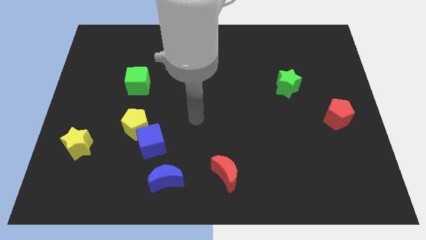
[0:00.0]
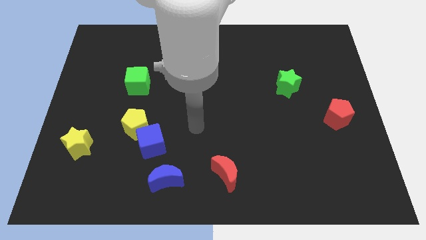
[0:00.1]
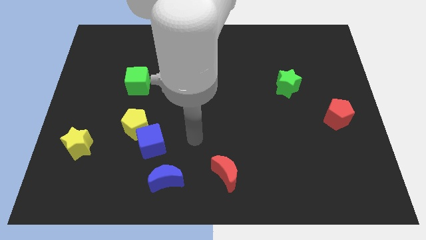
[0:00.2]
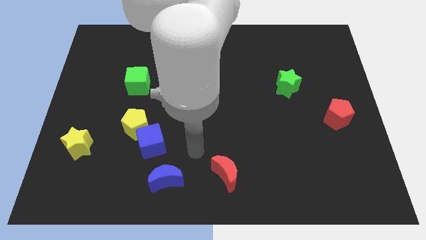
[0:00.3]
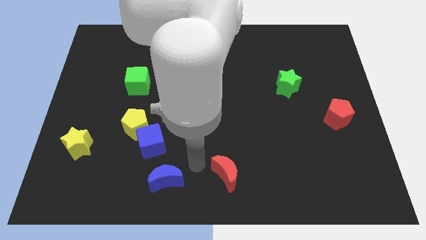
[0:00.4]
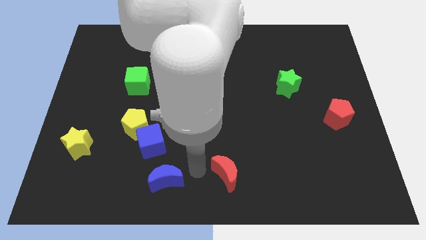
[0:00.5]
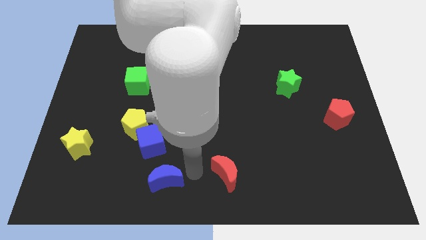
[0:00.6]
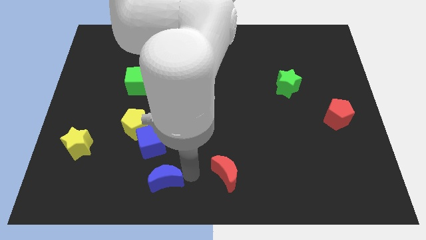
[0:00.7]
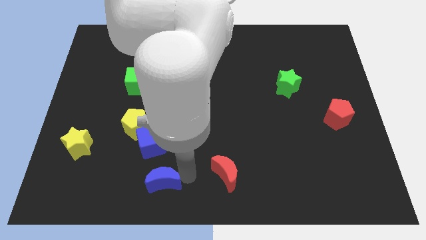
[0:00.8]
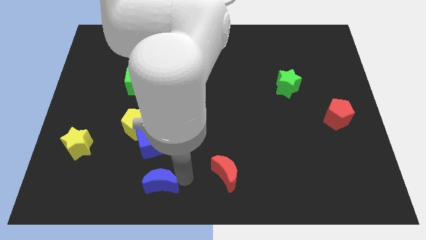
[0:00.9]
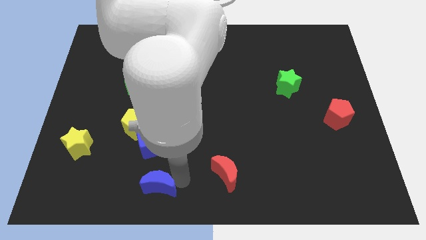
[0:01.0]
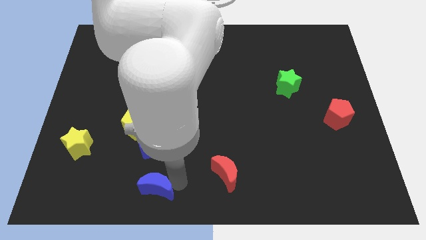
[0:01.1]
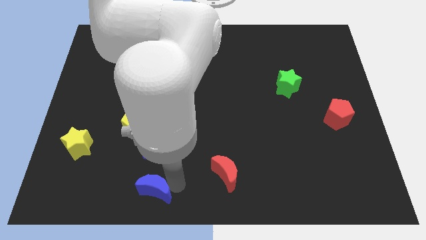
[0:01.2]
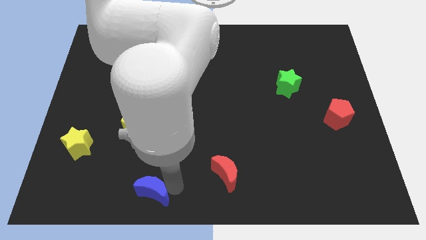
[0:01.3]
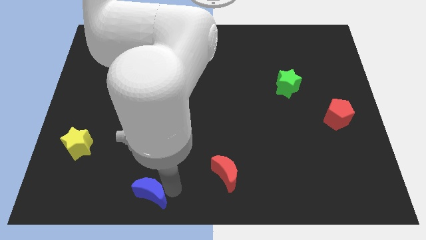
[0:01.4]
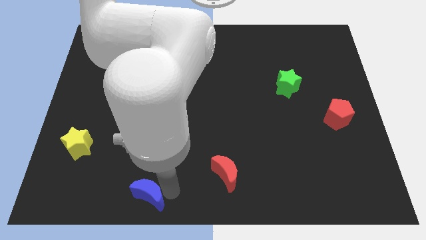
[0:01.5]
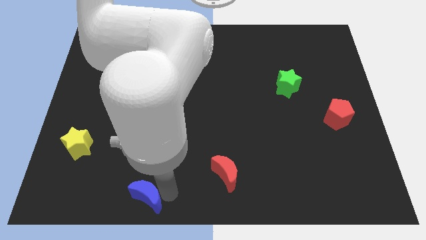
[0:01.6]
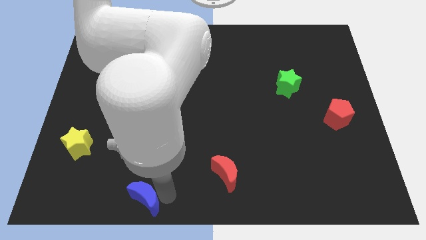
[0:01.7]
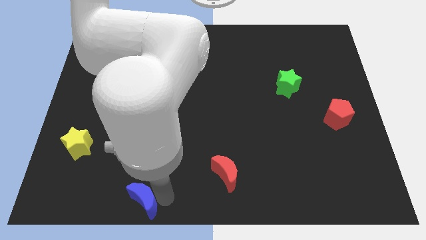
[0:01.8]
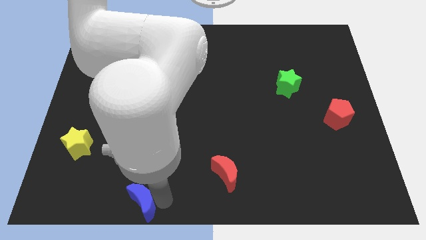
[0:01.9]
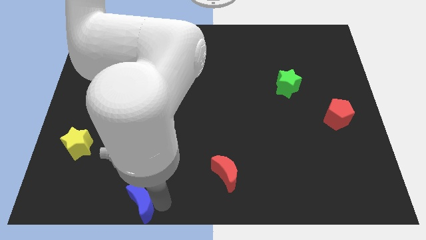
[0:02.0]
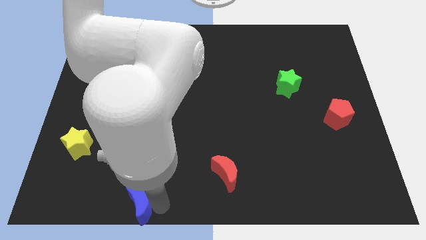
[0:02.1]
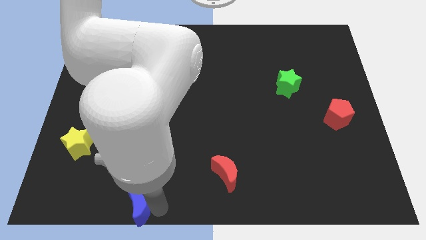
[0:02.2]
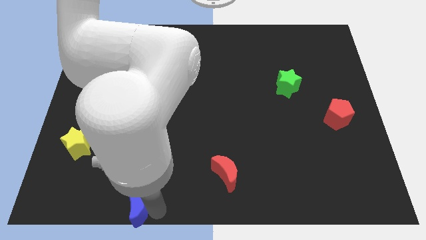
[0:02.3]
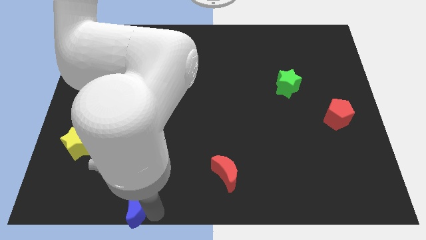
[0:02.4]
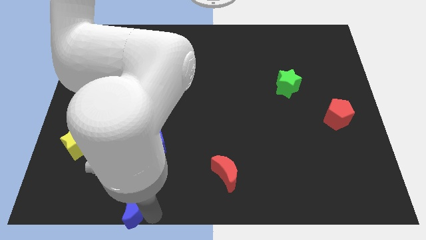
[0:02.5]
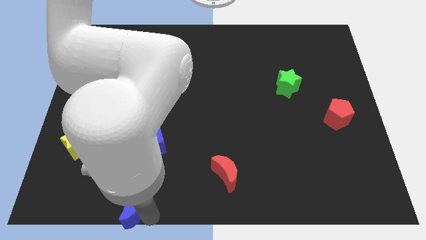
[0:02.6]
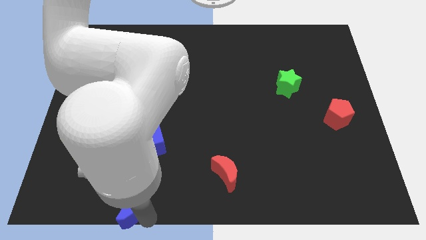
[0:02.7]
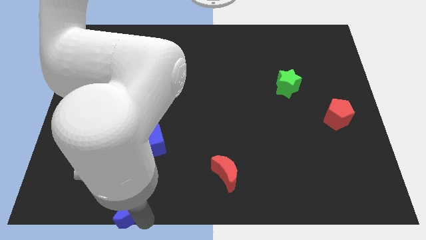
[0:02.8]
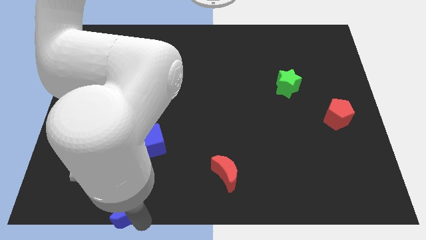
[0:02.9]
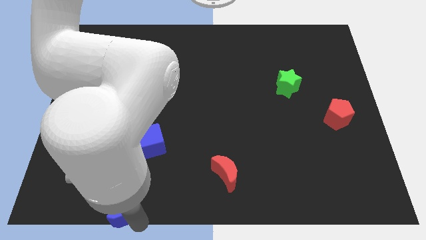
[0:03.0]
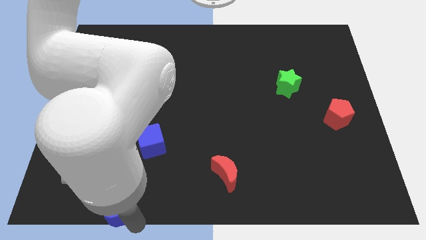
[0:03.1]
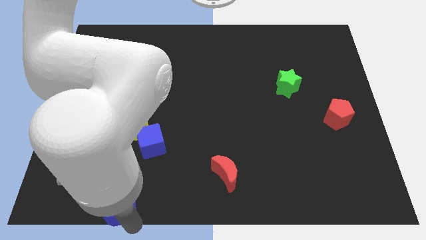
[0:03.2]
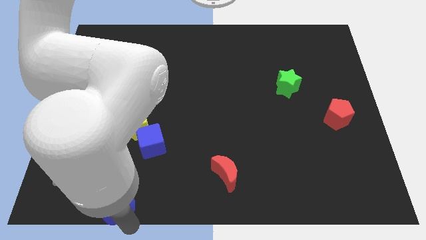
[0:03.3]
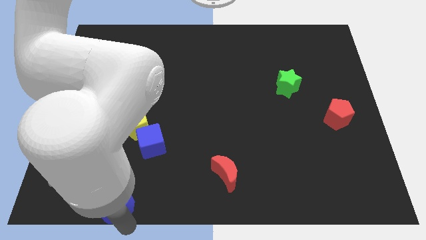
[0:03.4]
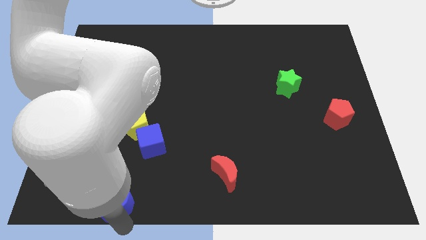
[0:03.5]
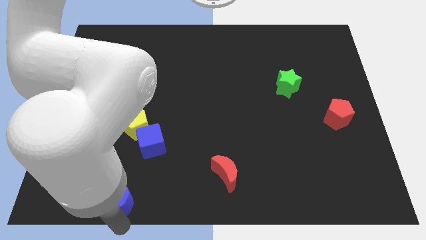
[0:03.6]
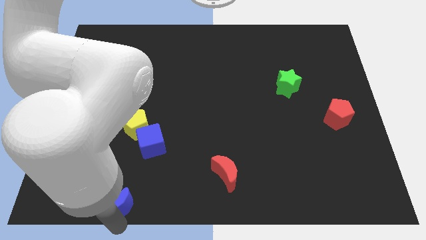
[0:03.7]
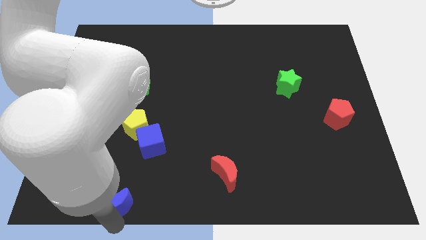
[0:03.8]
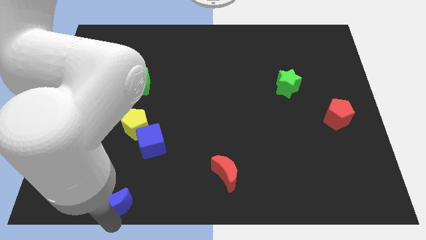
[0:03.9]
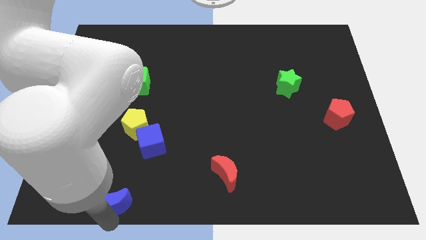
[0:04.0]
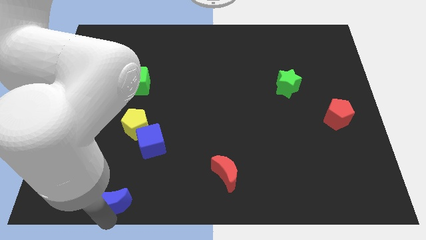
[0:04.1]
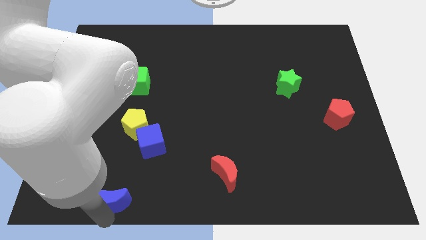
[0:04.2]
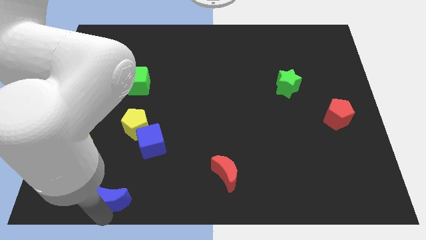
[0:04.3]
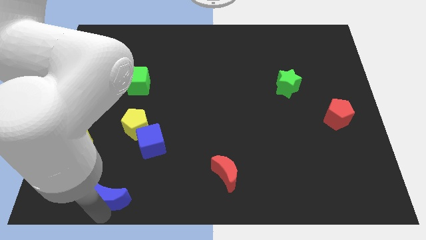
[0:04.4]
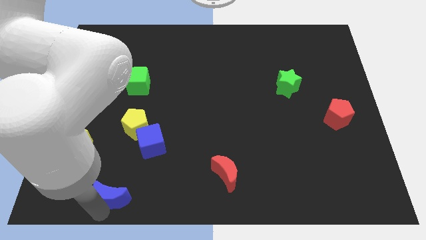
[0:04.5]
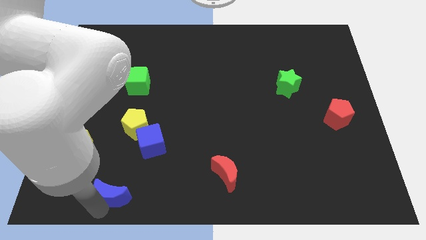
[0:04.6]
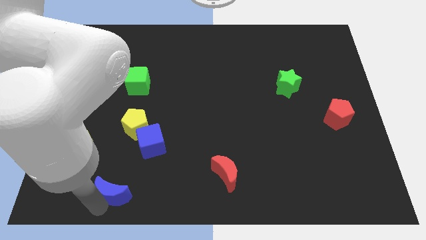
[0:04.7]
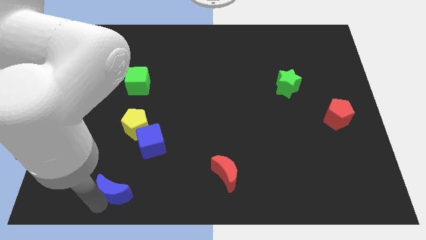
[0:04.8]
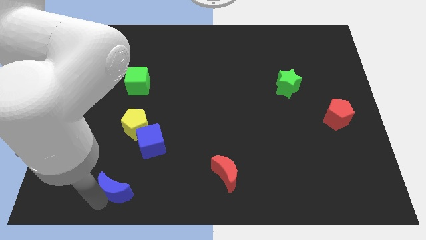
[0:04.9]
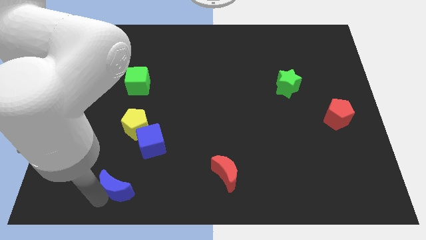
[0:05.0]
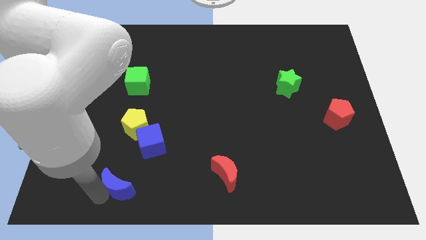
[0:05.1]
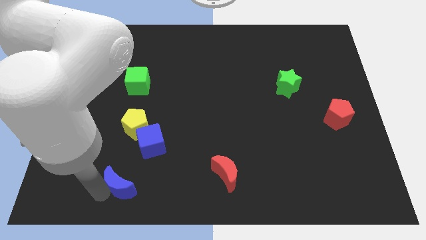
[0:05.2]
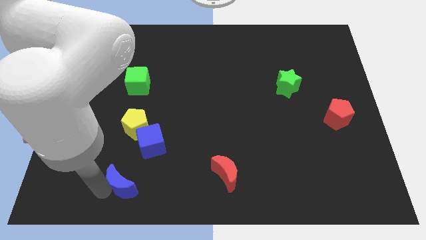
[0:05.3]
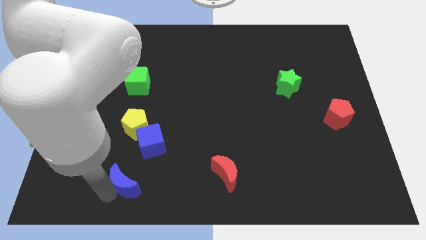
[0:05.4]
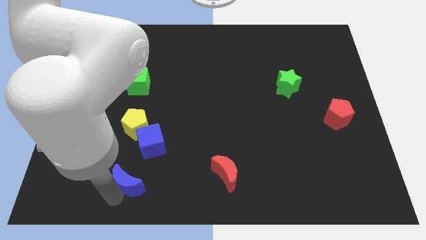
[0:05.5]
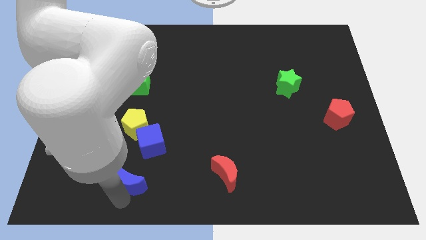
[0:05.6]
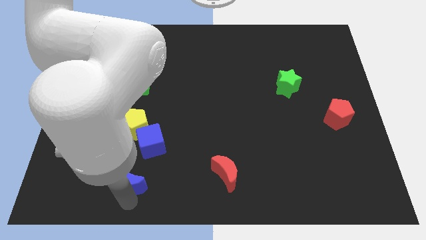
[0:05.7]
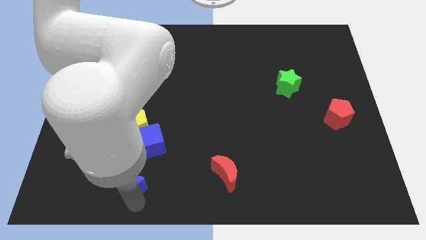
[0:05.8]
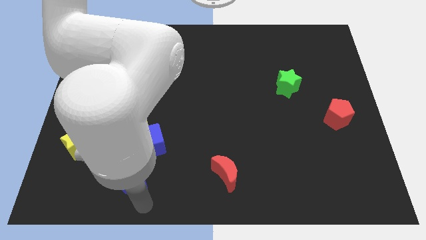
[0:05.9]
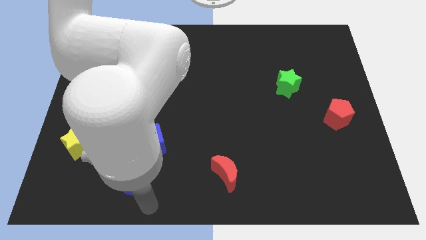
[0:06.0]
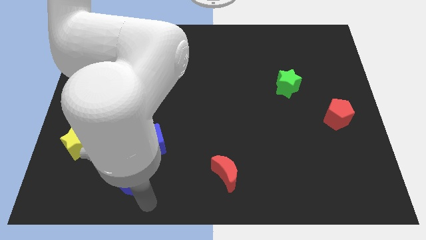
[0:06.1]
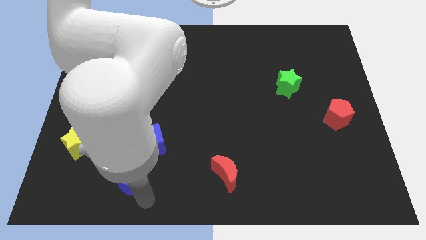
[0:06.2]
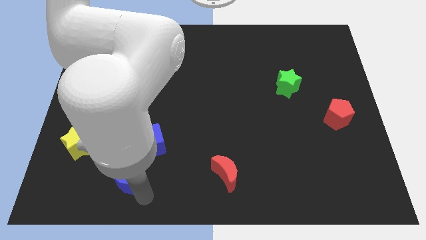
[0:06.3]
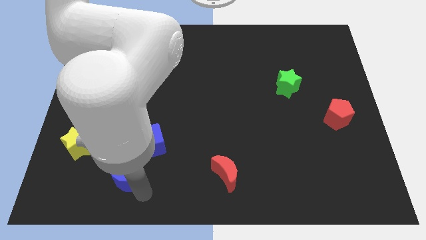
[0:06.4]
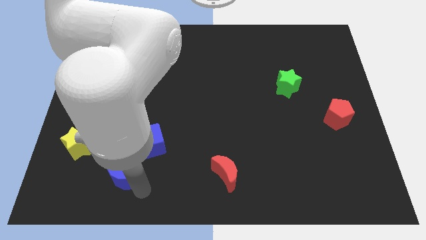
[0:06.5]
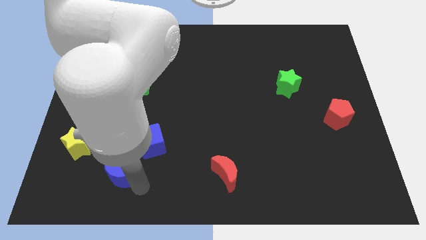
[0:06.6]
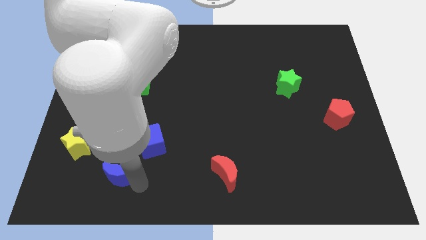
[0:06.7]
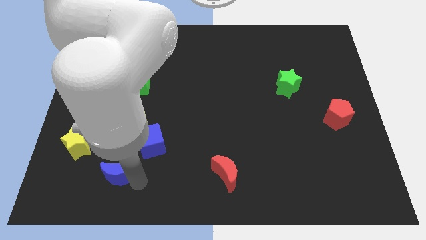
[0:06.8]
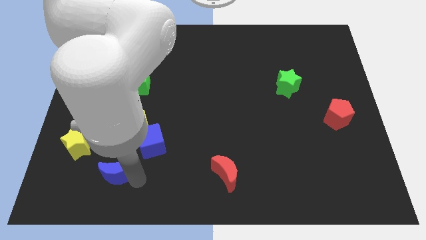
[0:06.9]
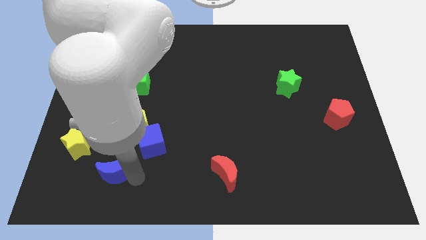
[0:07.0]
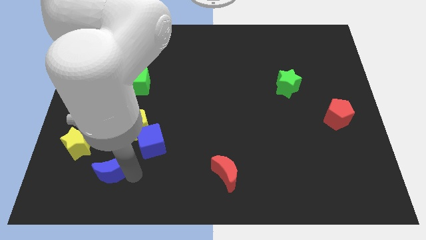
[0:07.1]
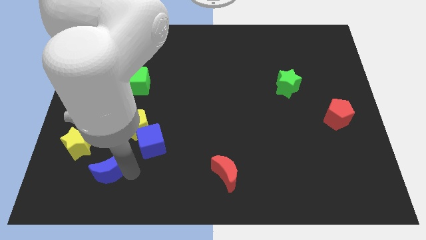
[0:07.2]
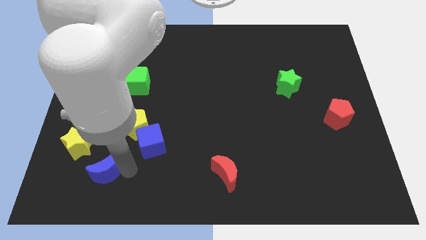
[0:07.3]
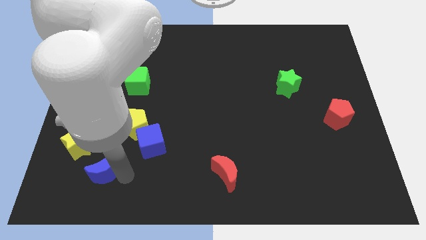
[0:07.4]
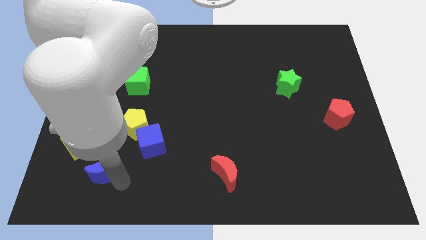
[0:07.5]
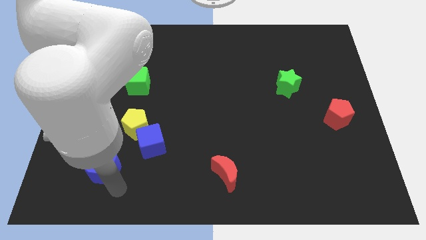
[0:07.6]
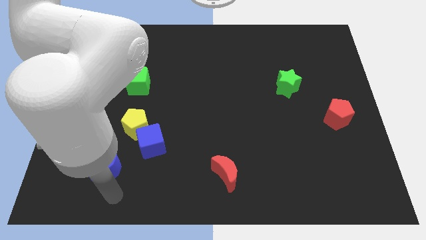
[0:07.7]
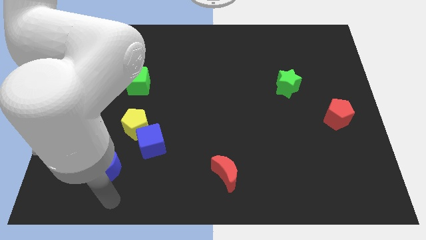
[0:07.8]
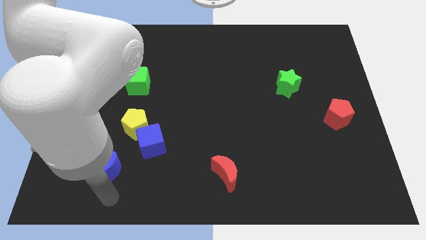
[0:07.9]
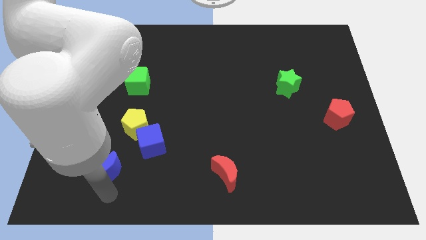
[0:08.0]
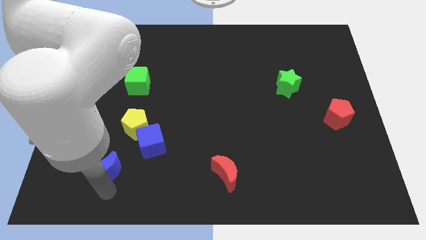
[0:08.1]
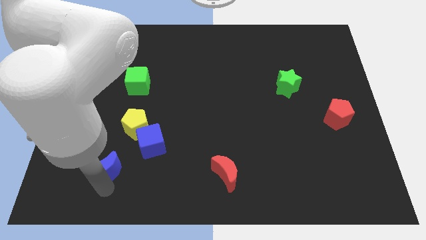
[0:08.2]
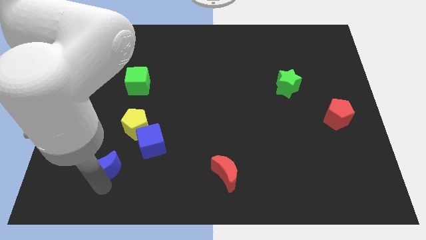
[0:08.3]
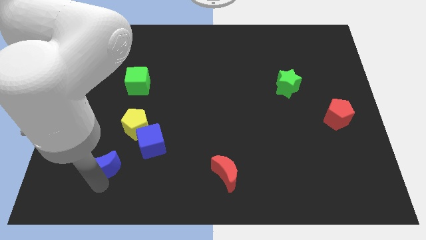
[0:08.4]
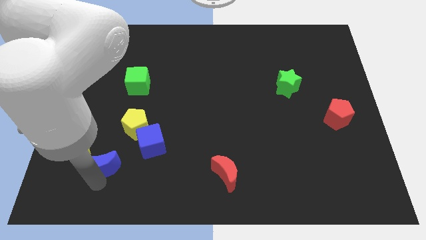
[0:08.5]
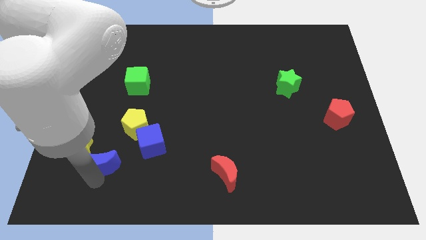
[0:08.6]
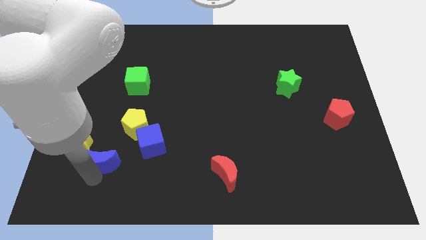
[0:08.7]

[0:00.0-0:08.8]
push the blue moon to the left of the blue cube
